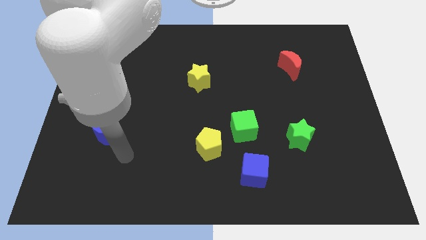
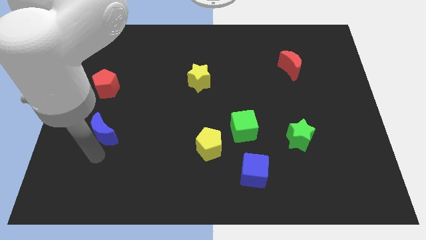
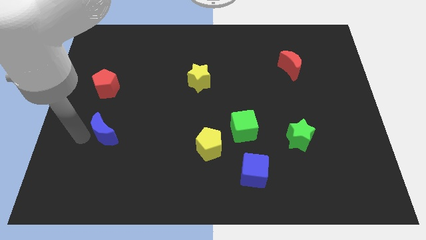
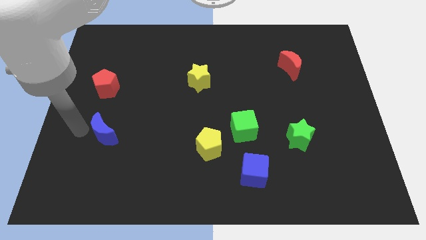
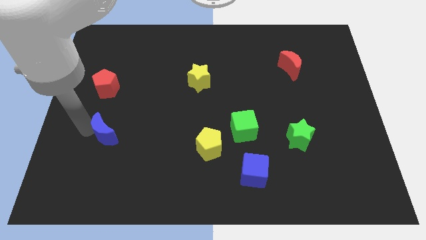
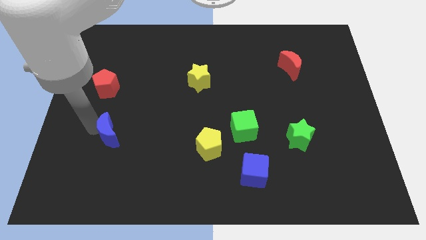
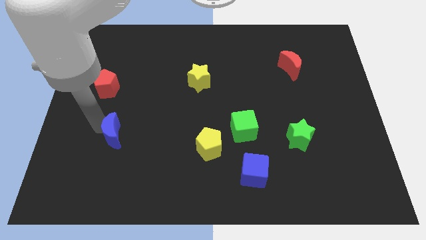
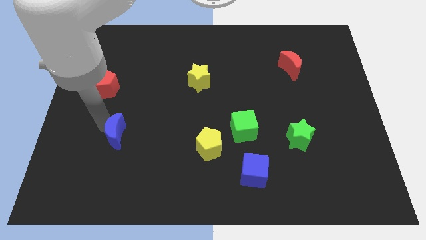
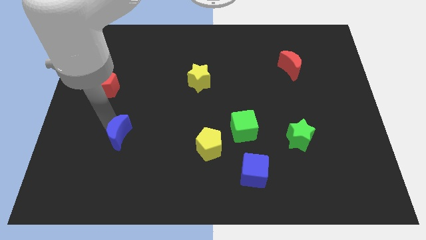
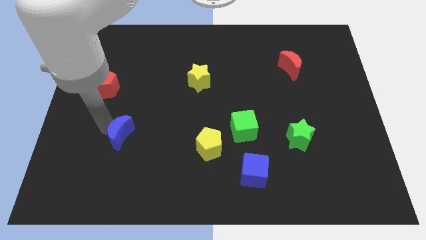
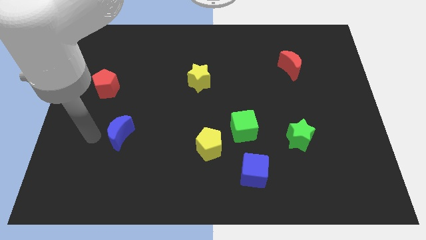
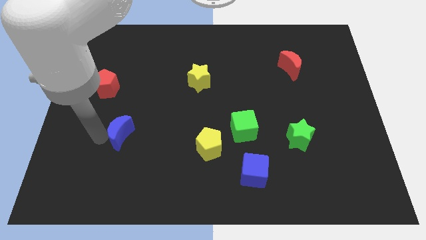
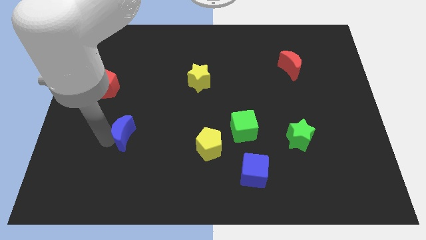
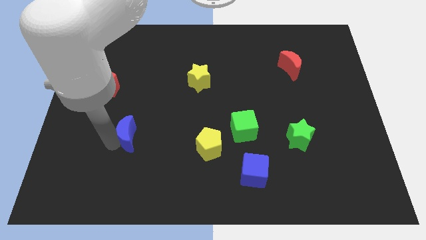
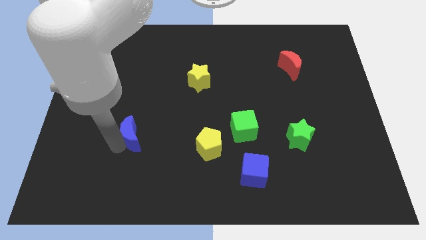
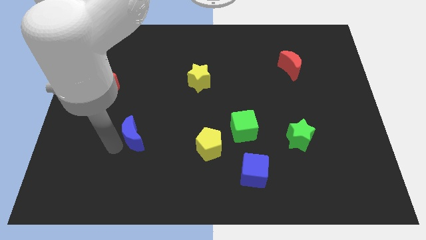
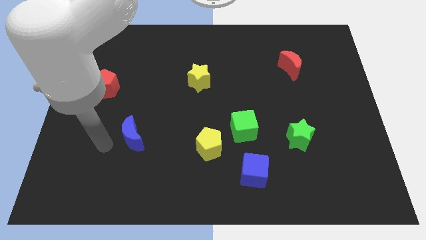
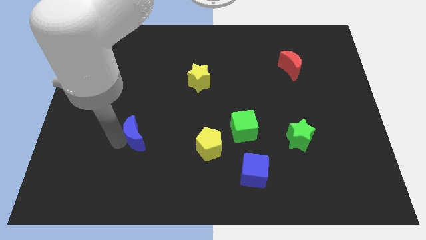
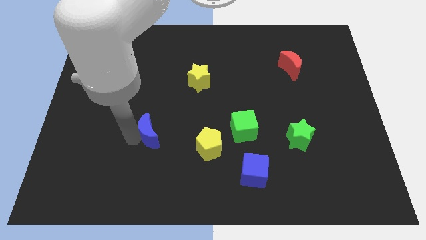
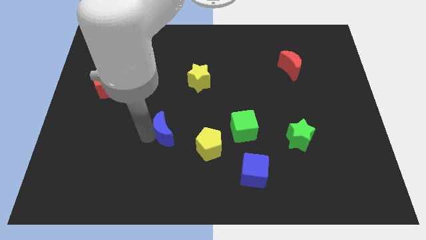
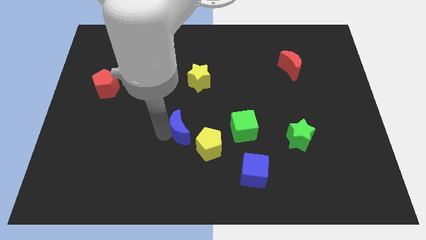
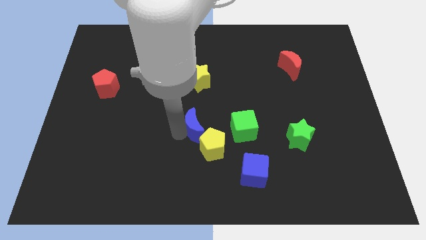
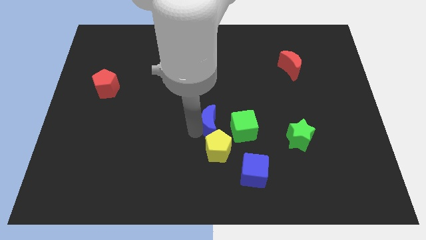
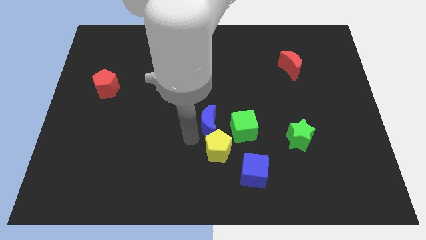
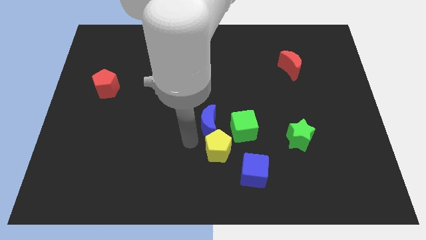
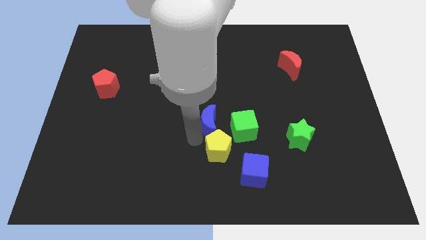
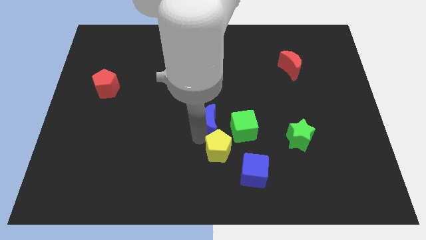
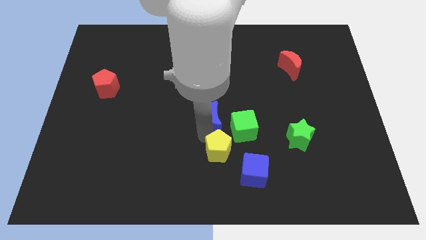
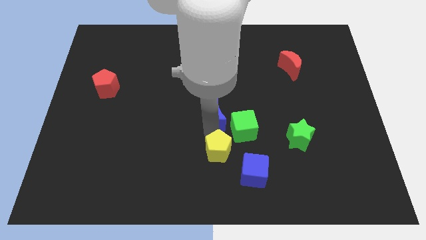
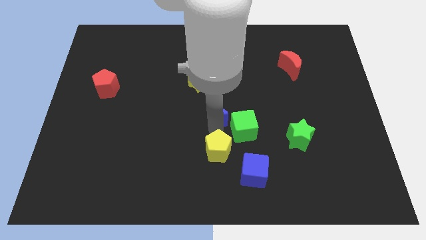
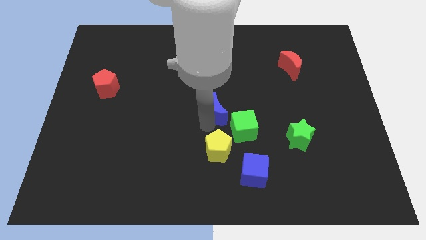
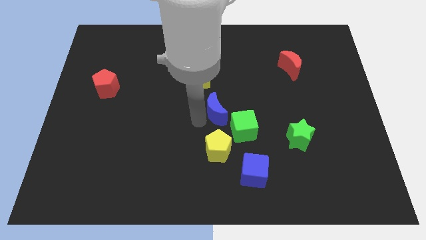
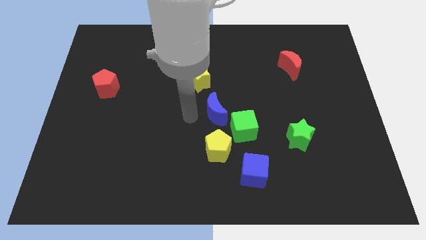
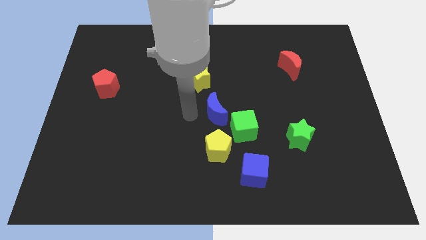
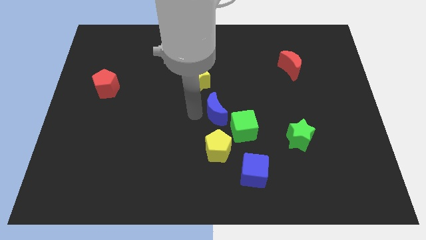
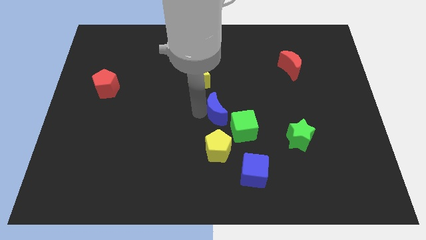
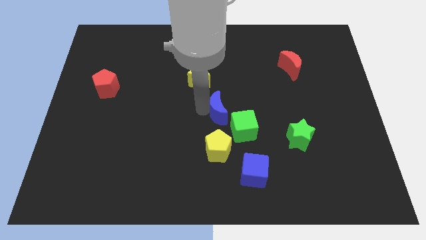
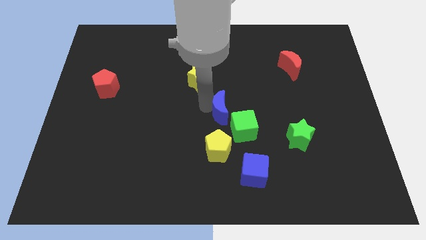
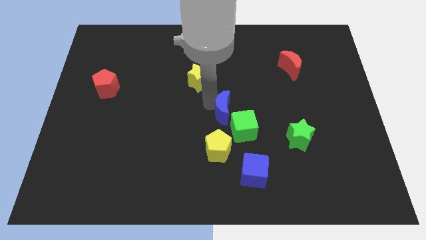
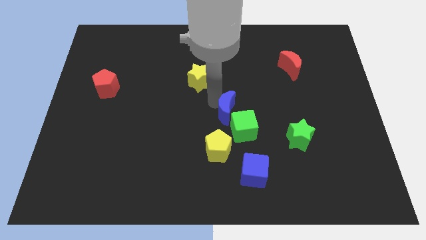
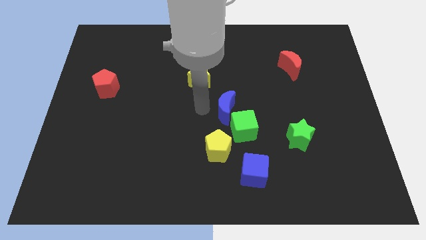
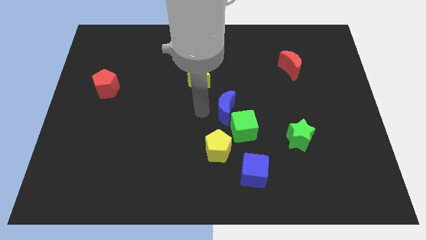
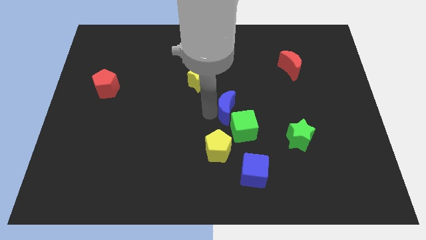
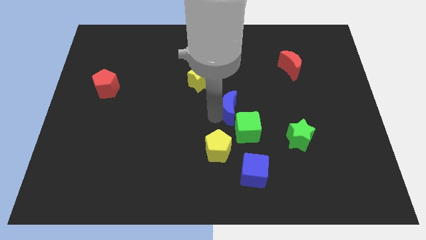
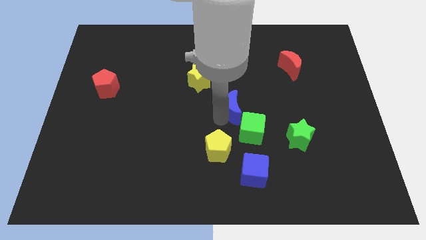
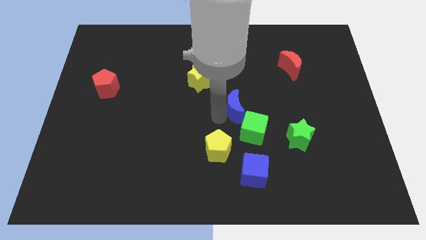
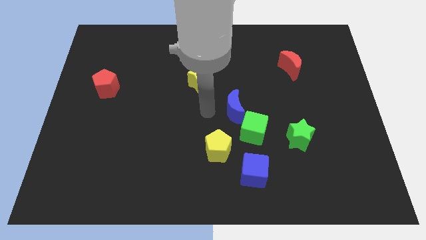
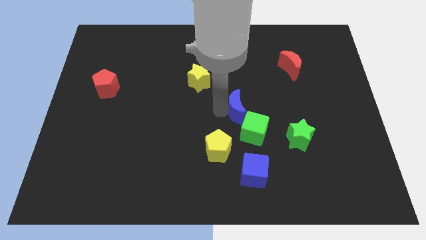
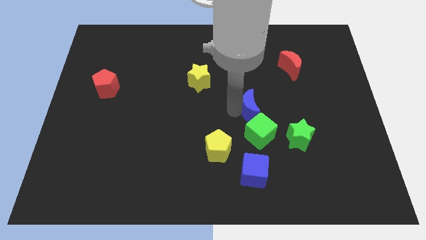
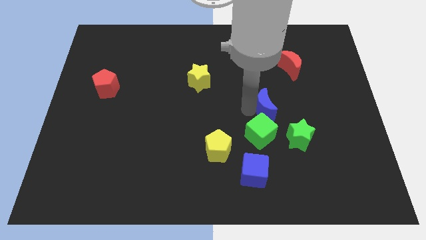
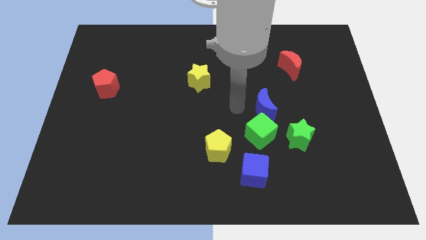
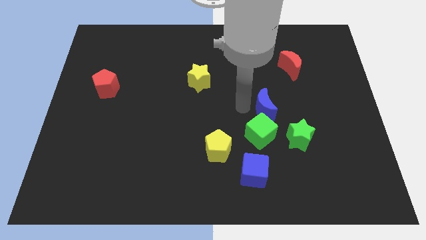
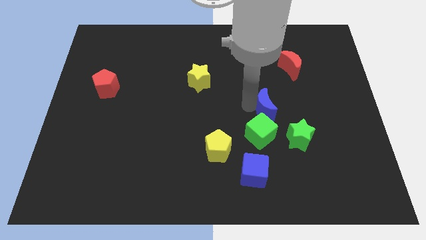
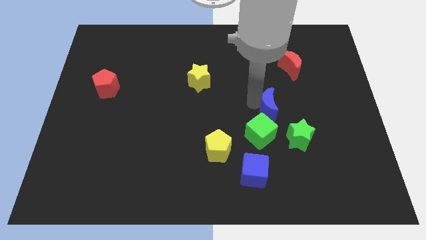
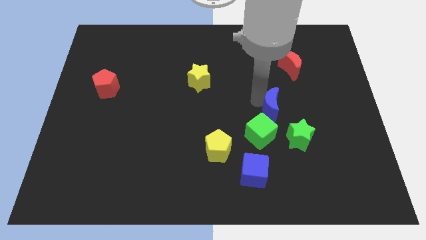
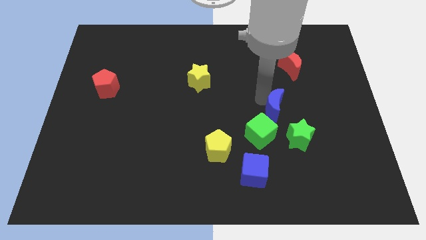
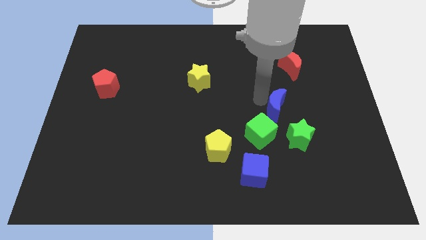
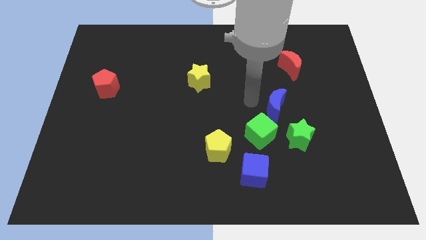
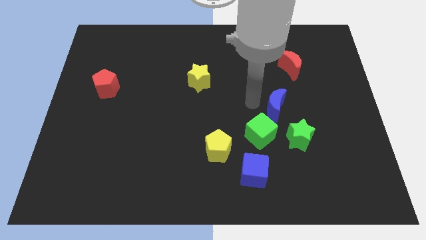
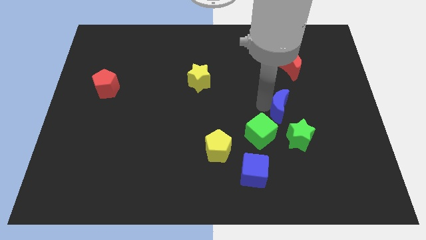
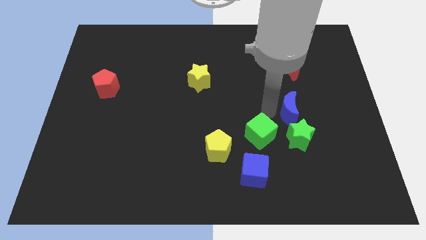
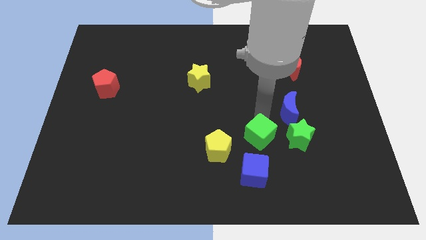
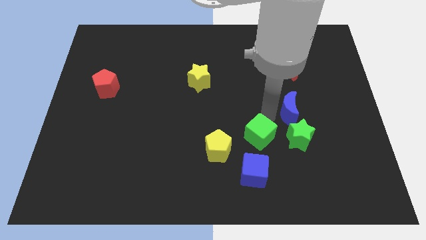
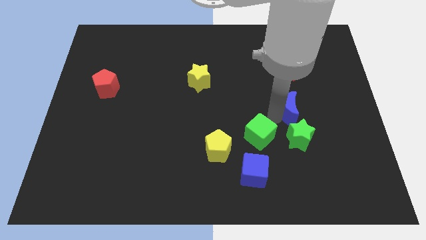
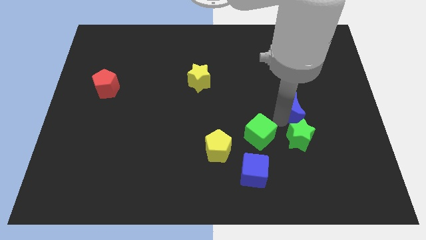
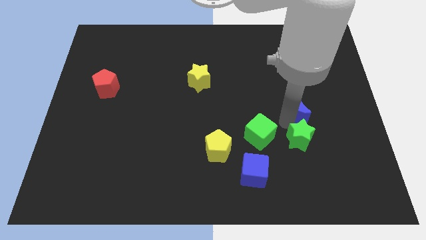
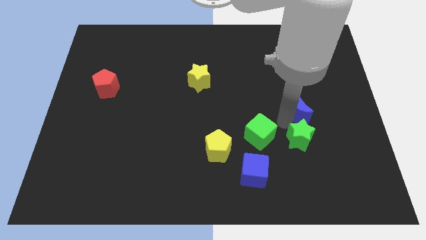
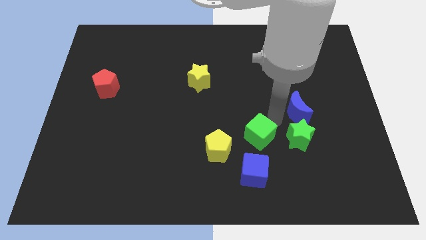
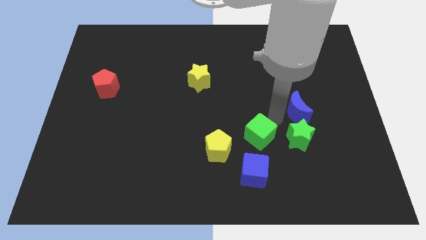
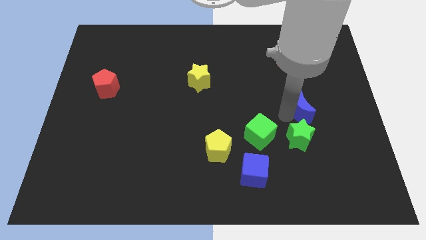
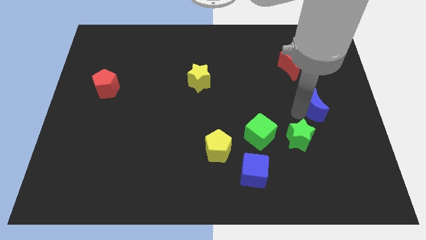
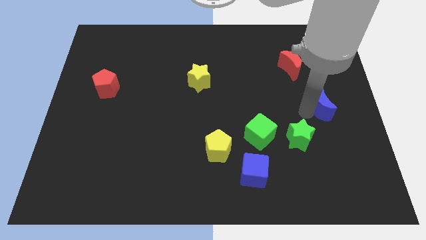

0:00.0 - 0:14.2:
move the blue moon to the center right

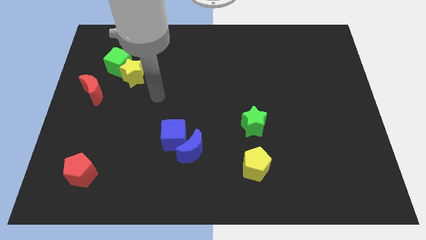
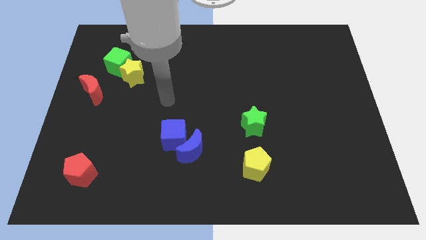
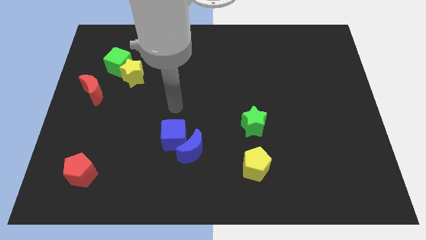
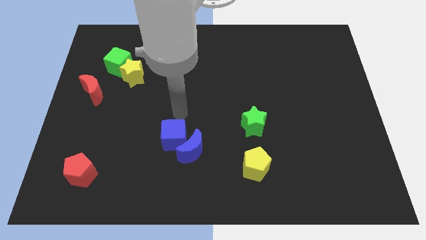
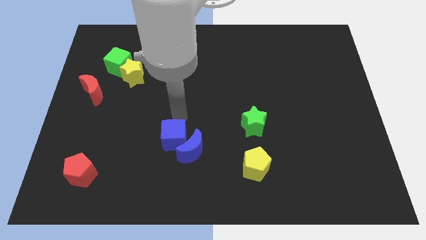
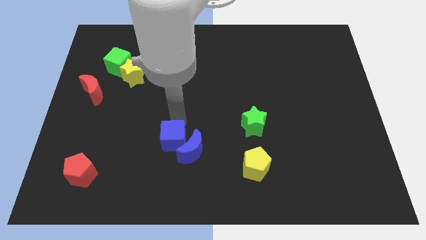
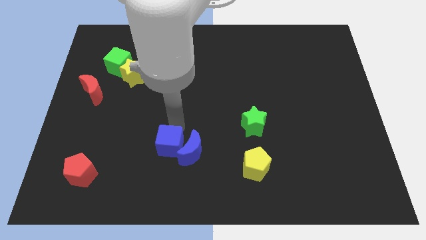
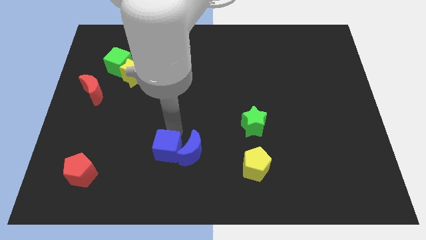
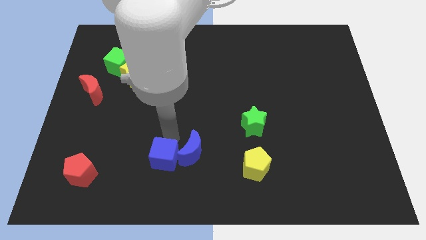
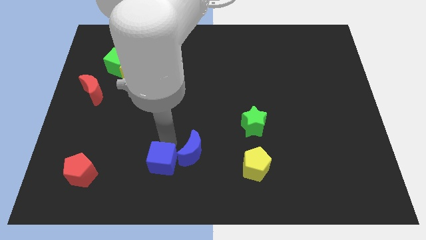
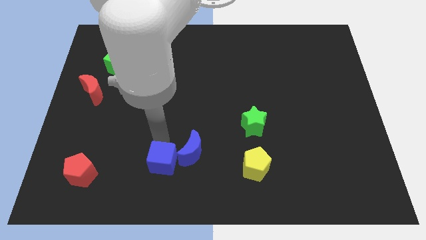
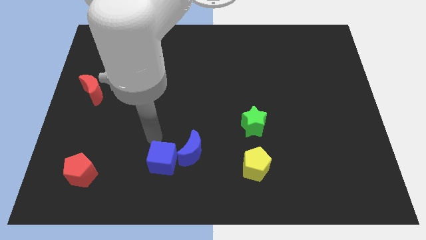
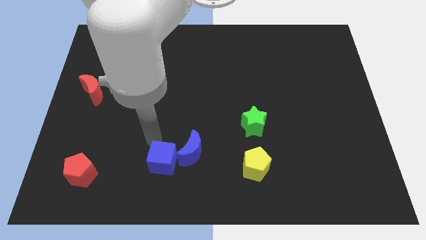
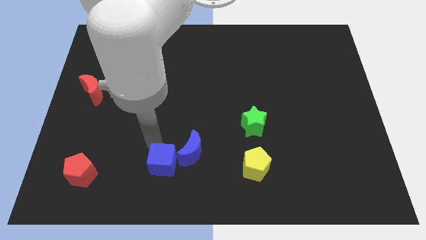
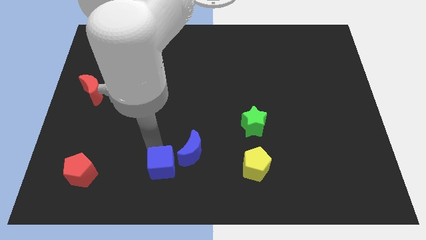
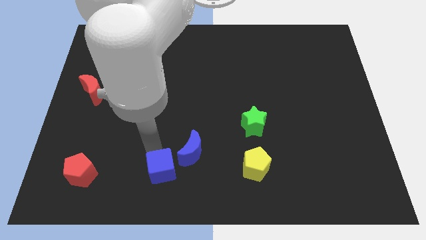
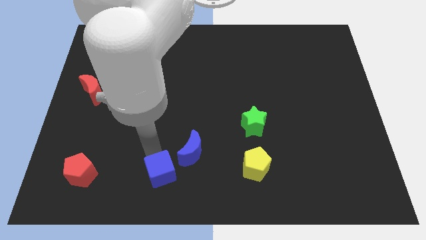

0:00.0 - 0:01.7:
move the blue cube to the bottom side
